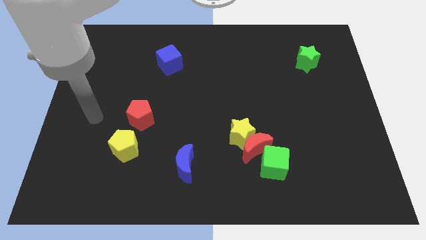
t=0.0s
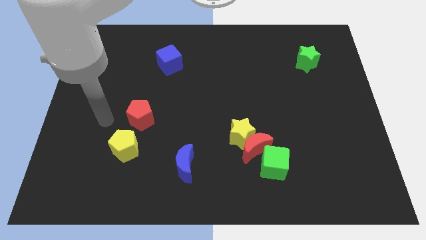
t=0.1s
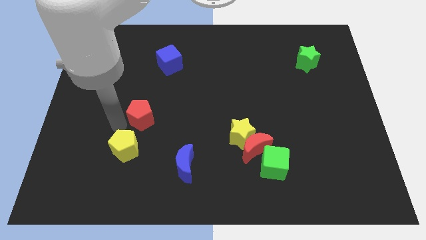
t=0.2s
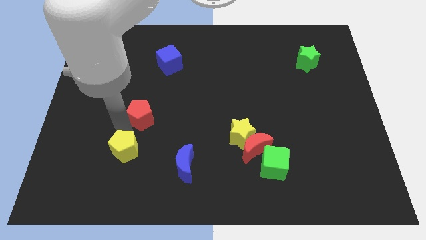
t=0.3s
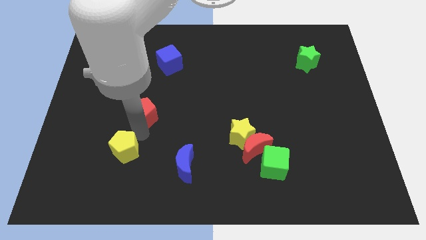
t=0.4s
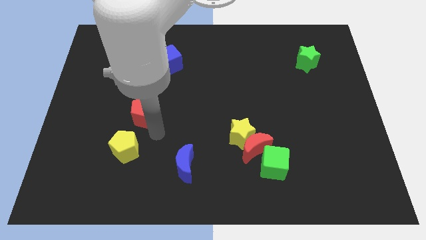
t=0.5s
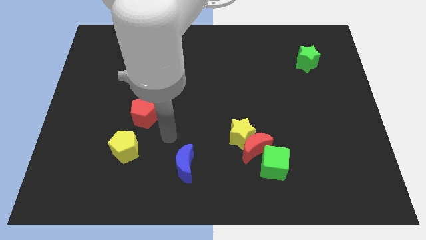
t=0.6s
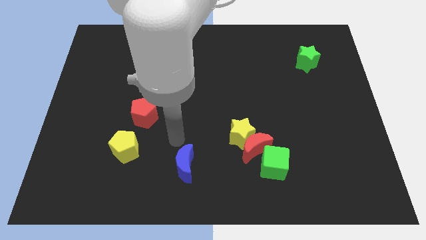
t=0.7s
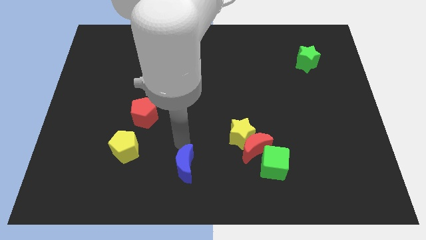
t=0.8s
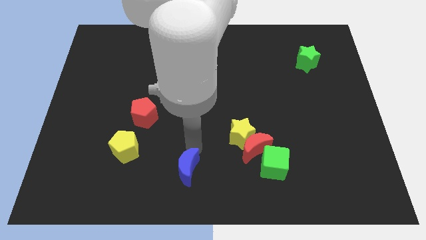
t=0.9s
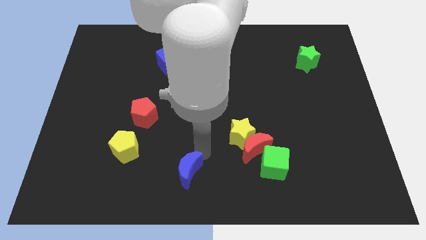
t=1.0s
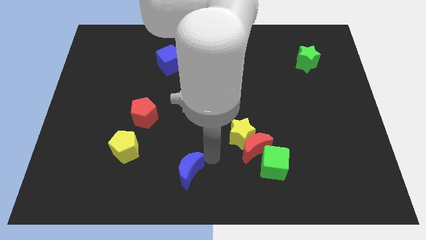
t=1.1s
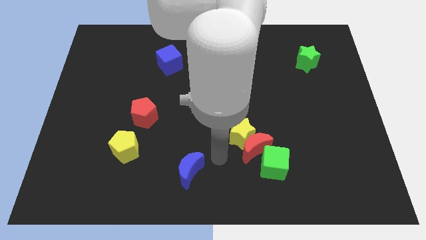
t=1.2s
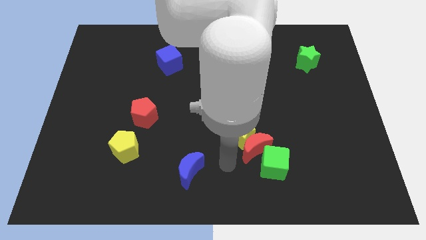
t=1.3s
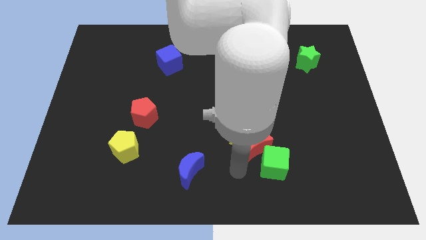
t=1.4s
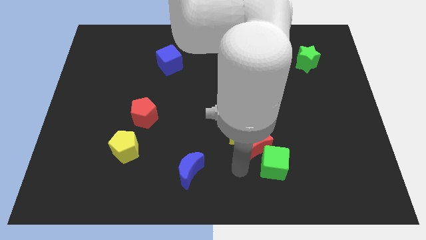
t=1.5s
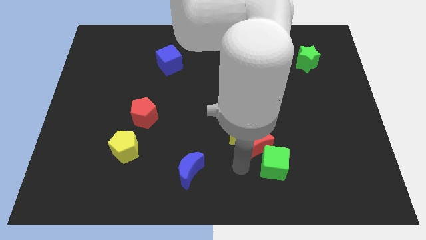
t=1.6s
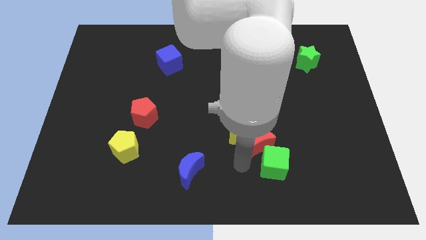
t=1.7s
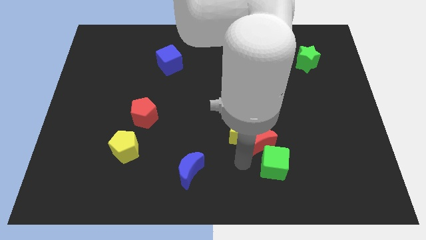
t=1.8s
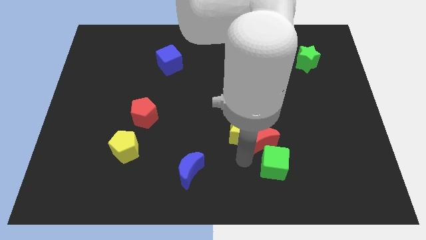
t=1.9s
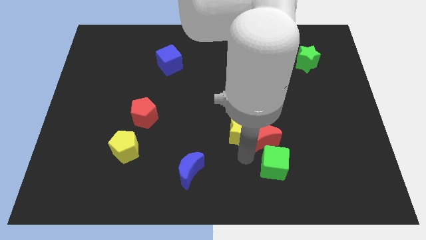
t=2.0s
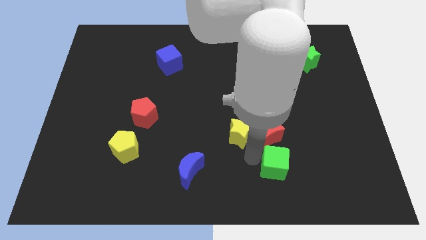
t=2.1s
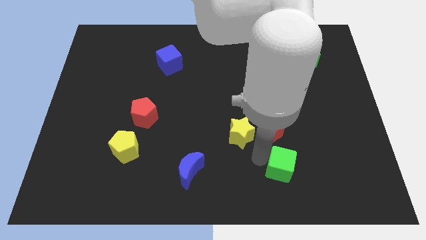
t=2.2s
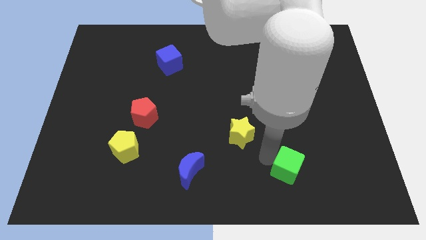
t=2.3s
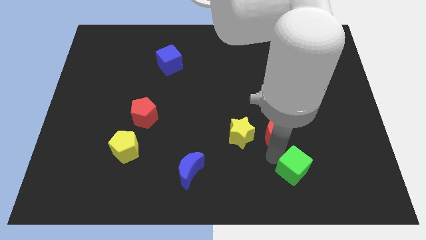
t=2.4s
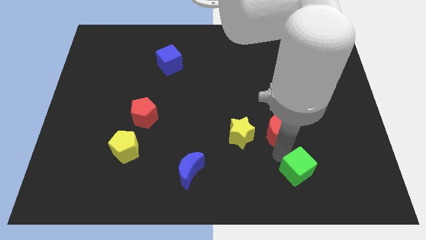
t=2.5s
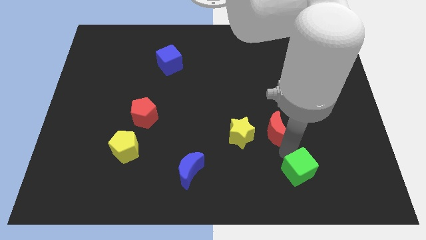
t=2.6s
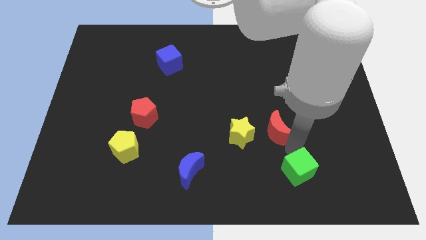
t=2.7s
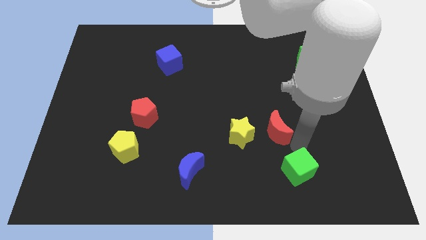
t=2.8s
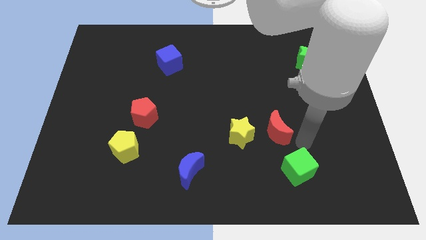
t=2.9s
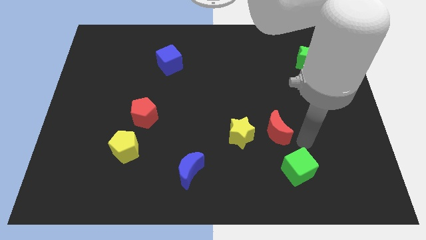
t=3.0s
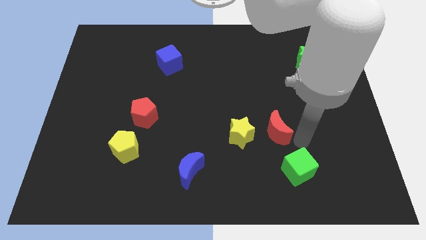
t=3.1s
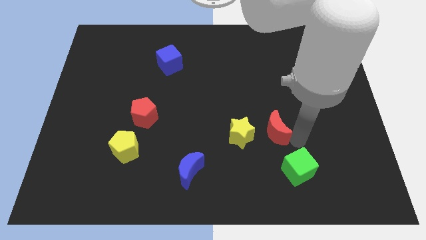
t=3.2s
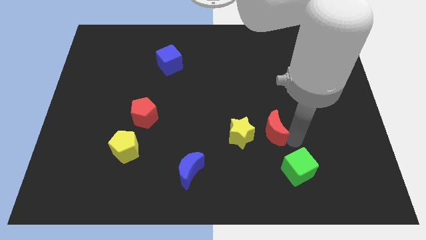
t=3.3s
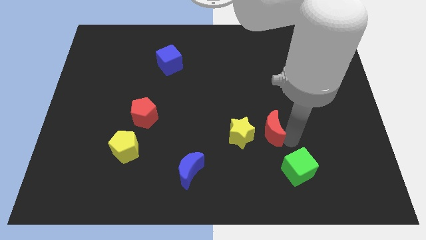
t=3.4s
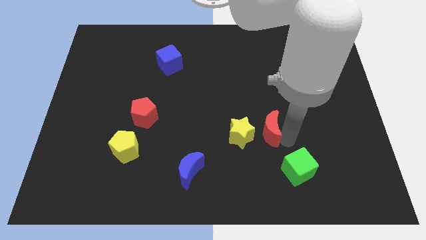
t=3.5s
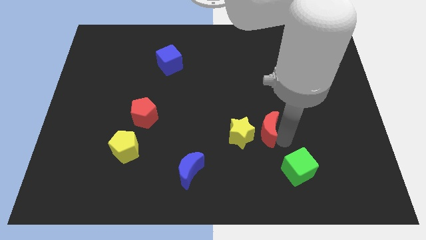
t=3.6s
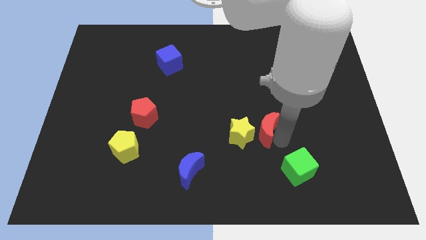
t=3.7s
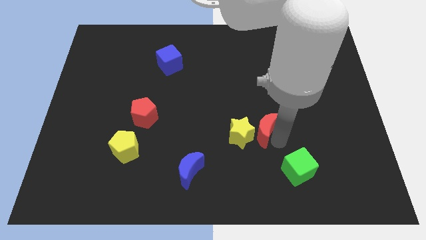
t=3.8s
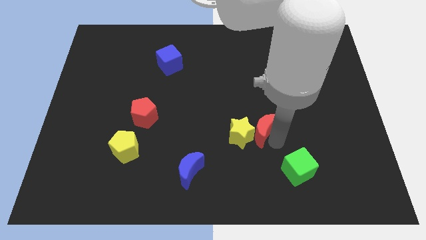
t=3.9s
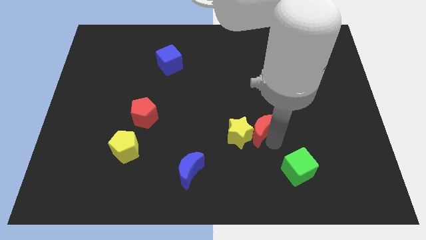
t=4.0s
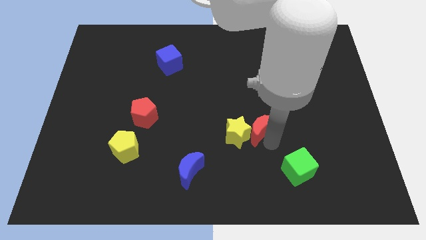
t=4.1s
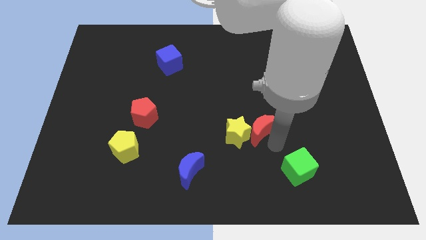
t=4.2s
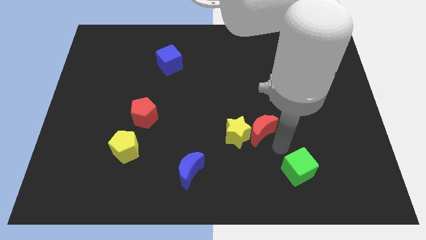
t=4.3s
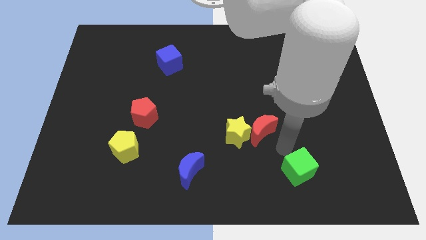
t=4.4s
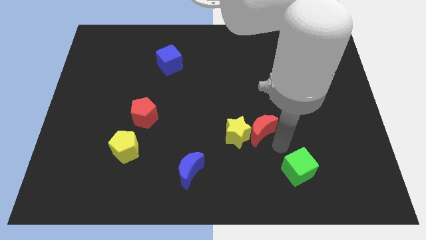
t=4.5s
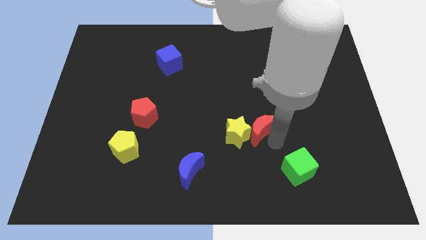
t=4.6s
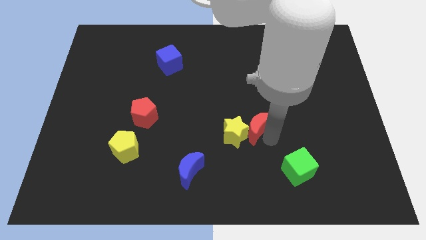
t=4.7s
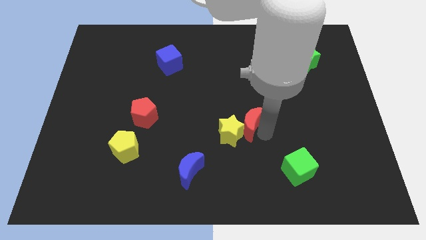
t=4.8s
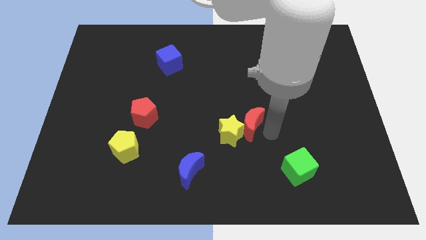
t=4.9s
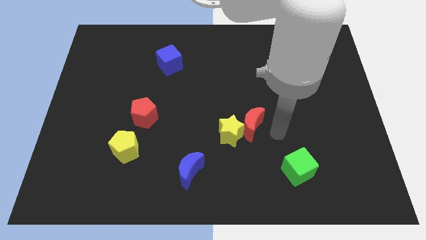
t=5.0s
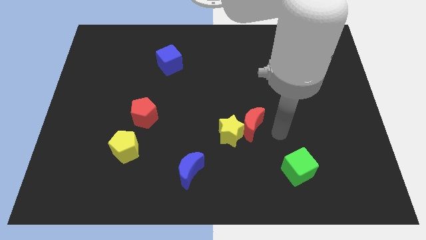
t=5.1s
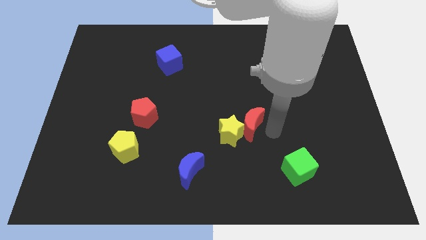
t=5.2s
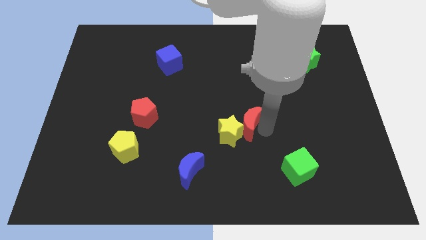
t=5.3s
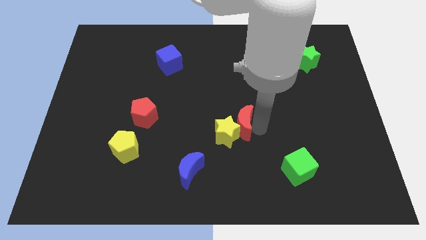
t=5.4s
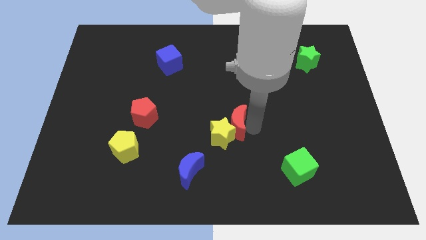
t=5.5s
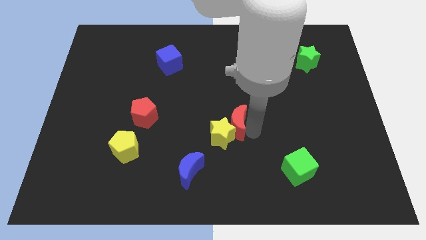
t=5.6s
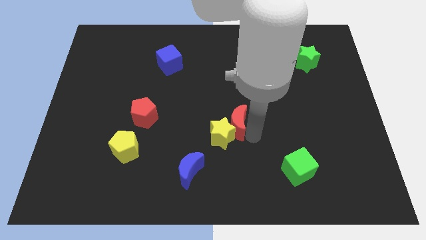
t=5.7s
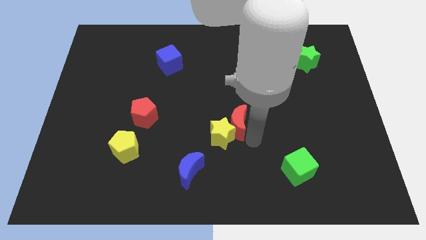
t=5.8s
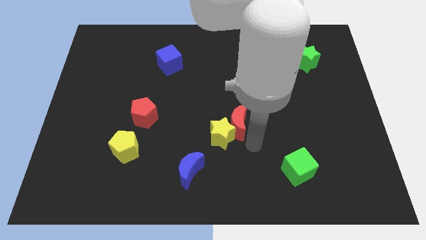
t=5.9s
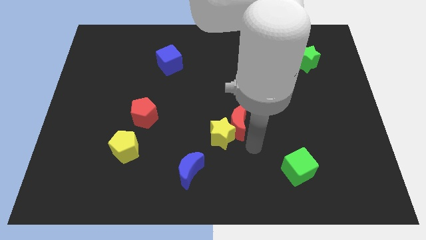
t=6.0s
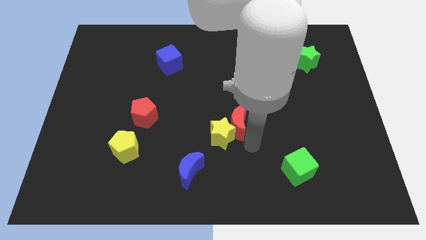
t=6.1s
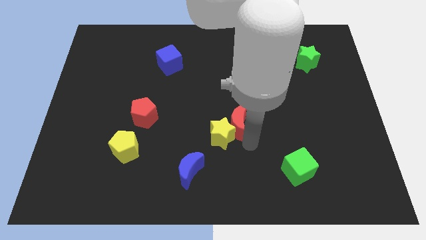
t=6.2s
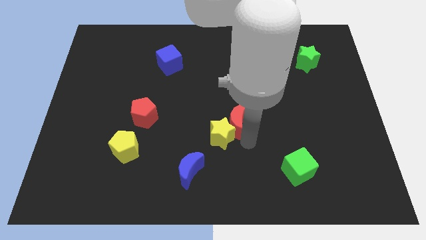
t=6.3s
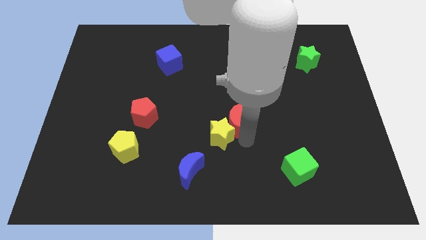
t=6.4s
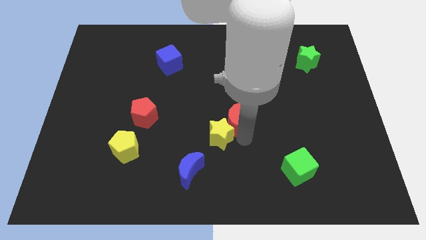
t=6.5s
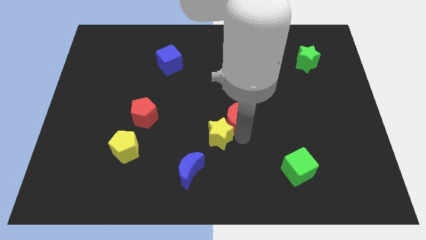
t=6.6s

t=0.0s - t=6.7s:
pull the red moon apart from the yellow star and green cube

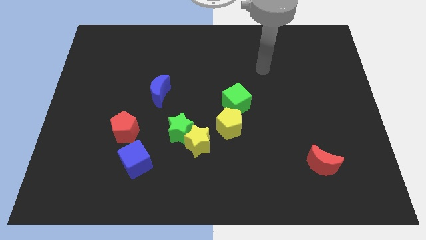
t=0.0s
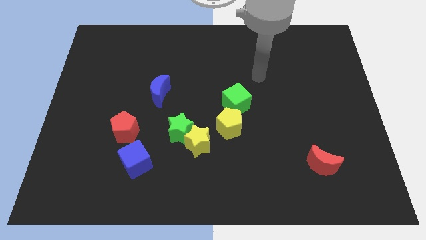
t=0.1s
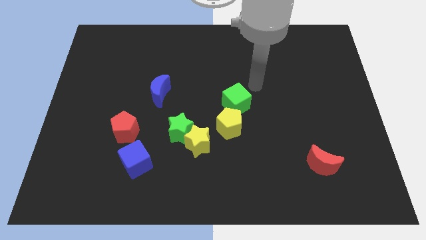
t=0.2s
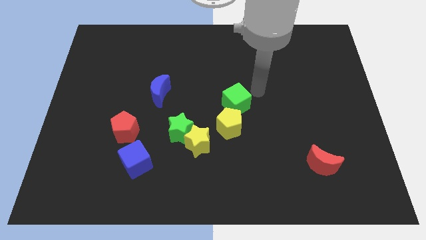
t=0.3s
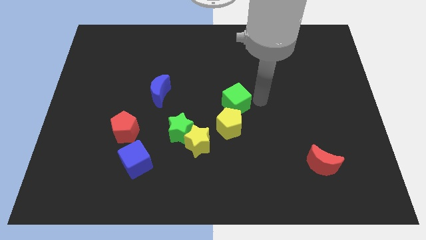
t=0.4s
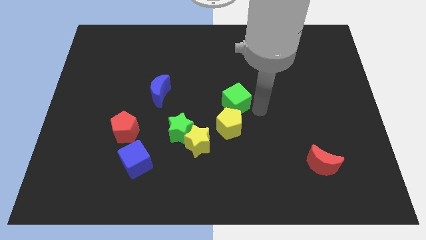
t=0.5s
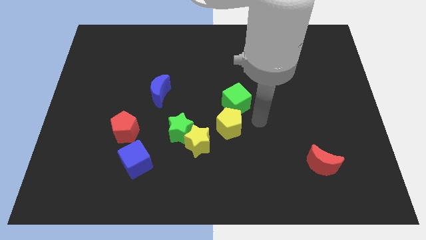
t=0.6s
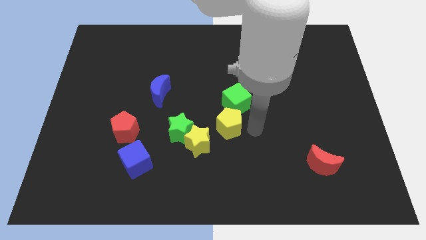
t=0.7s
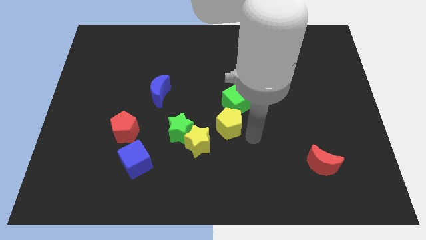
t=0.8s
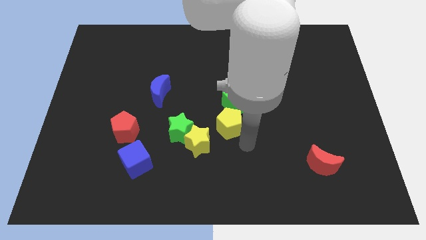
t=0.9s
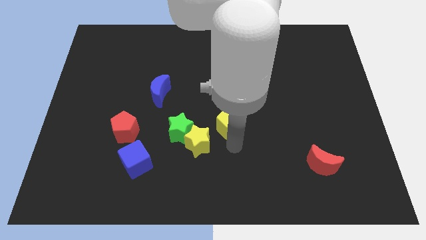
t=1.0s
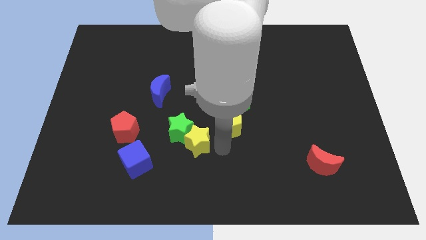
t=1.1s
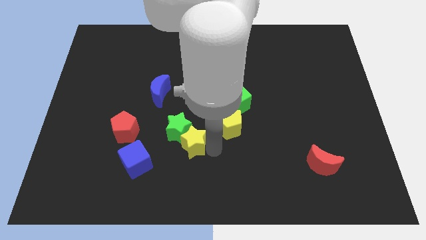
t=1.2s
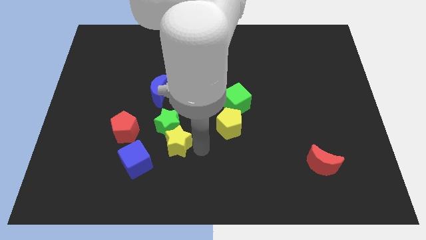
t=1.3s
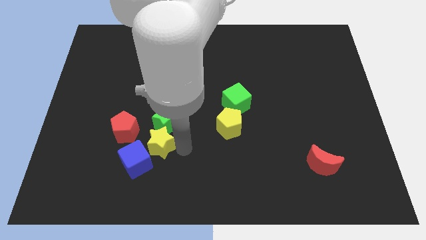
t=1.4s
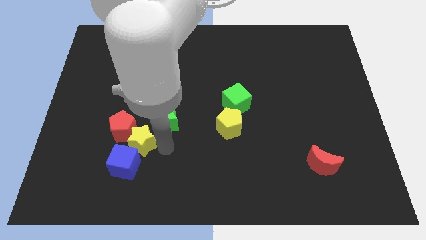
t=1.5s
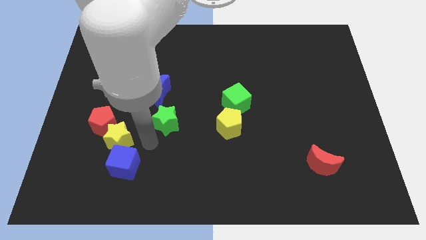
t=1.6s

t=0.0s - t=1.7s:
separate the green star from the yellow star

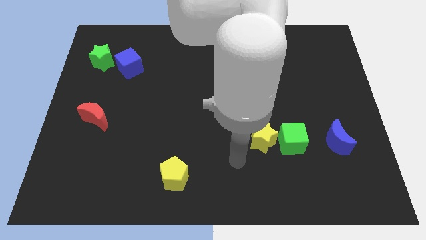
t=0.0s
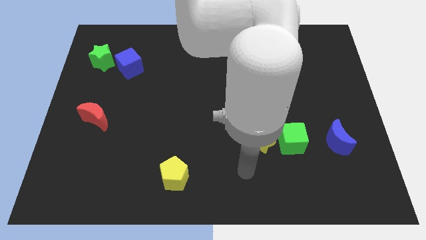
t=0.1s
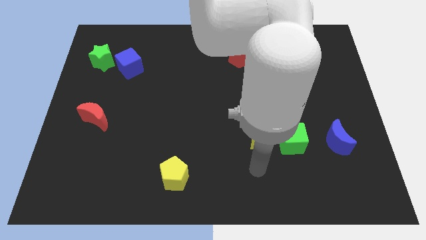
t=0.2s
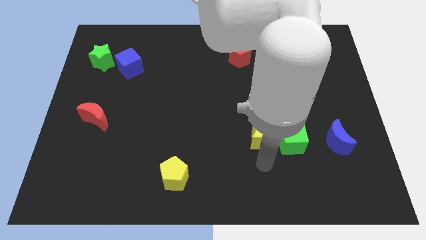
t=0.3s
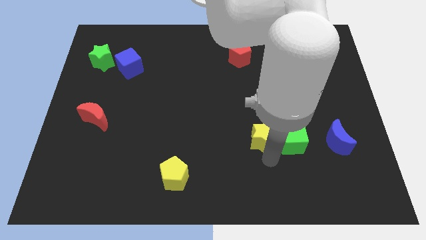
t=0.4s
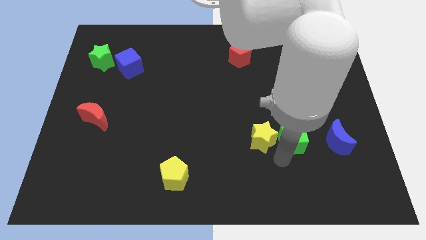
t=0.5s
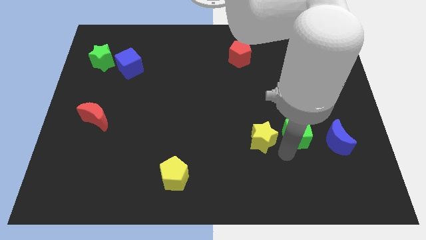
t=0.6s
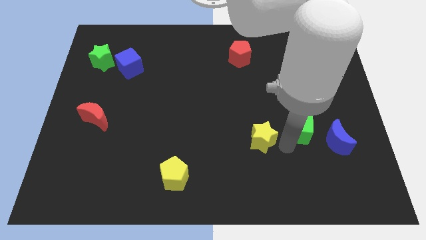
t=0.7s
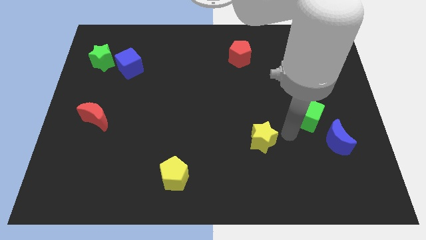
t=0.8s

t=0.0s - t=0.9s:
separate the yellow star from the green cube

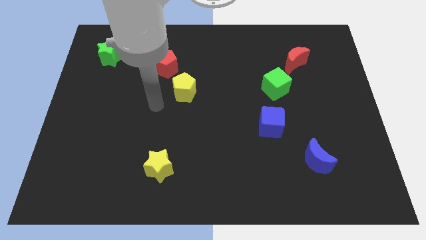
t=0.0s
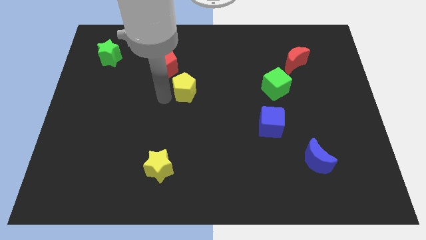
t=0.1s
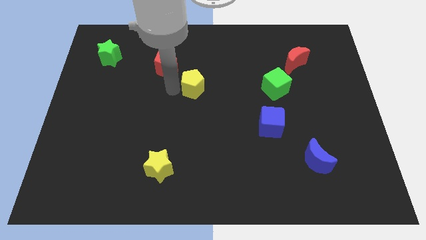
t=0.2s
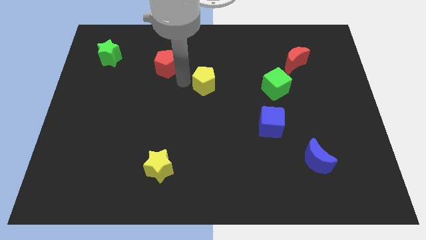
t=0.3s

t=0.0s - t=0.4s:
separate the red pentagon from the yellow pentagon
